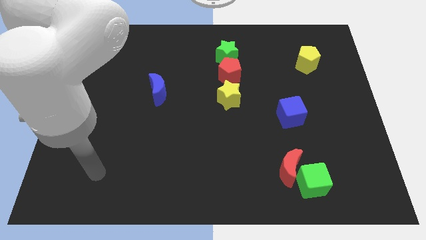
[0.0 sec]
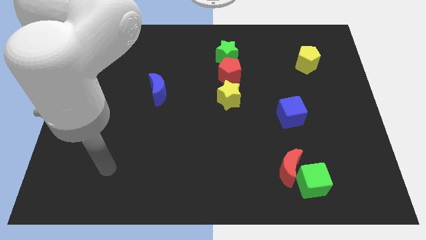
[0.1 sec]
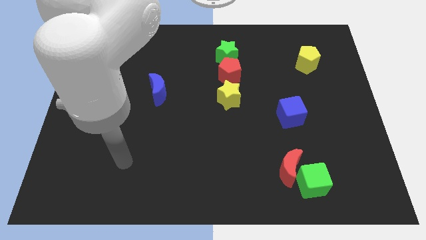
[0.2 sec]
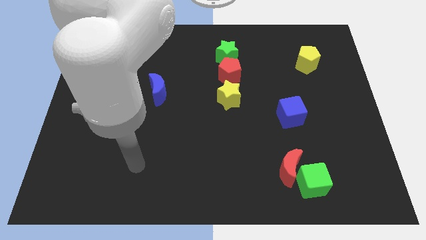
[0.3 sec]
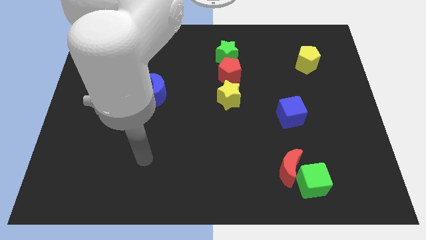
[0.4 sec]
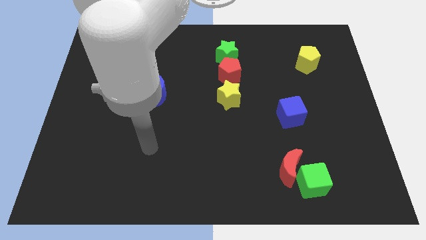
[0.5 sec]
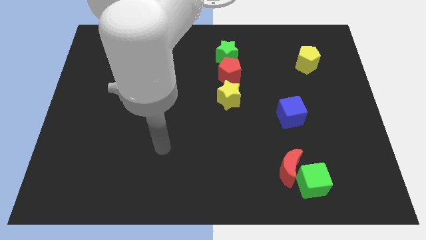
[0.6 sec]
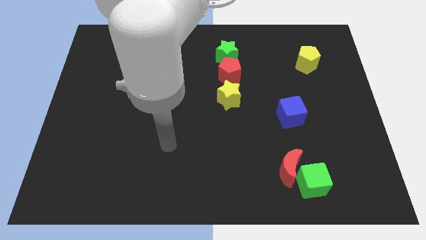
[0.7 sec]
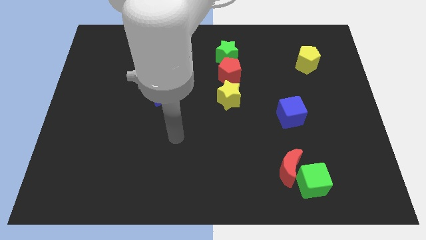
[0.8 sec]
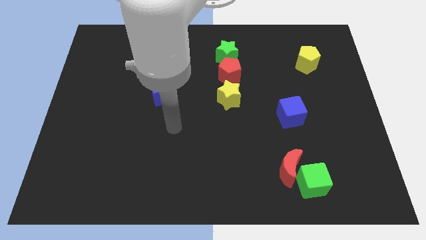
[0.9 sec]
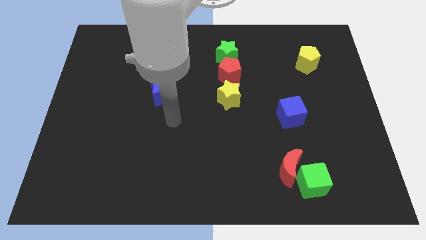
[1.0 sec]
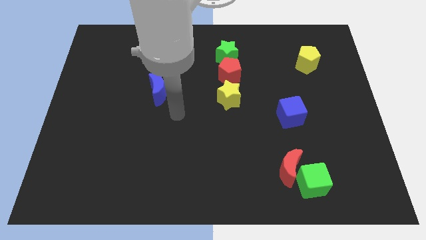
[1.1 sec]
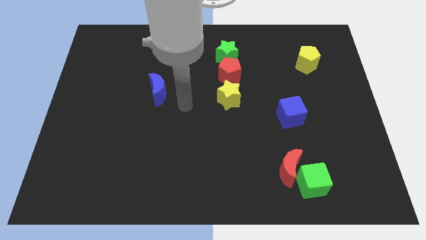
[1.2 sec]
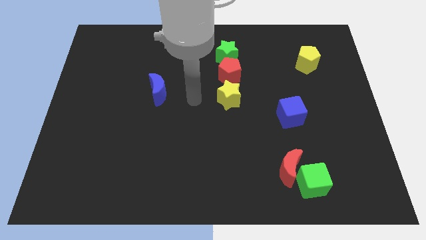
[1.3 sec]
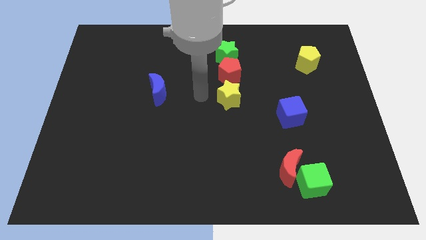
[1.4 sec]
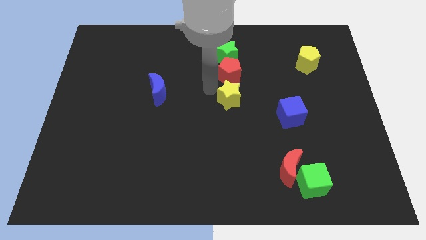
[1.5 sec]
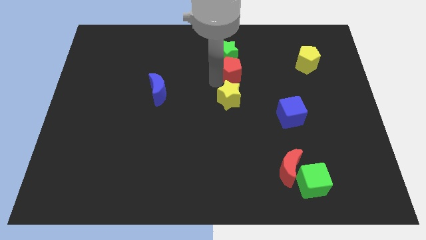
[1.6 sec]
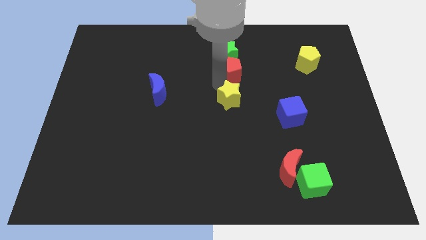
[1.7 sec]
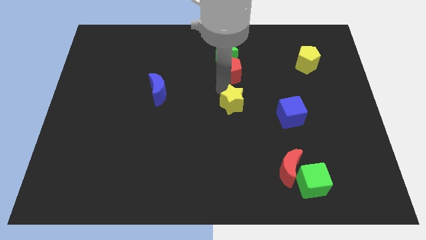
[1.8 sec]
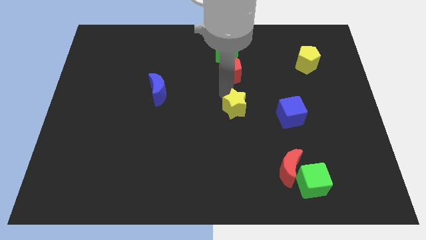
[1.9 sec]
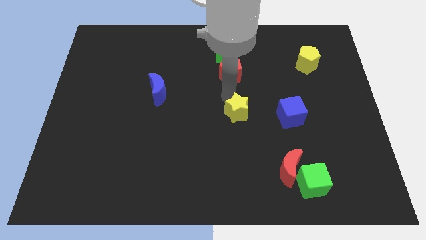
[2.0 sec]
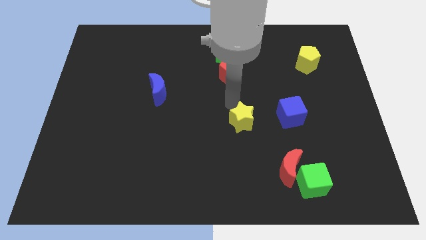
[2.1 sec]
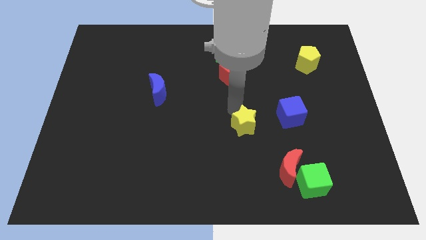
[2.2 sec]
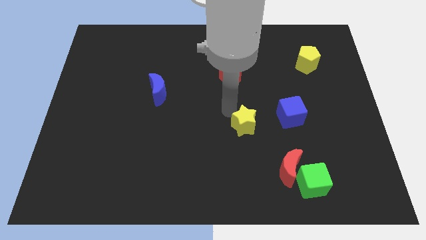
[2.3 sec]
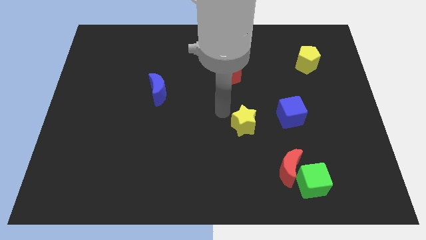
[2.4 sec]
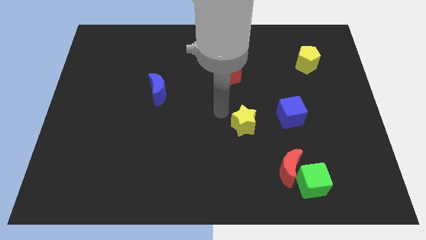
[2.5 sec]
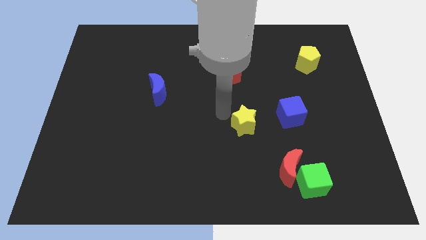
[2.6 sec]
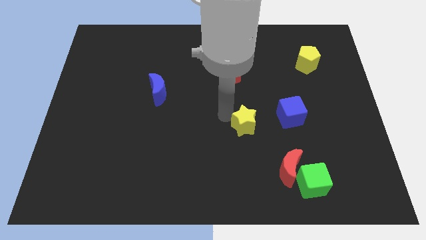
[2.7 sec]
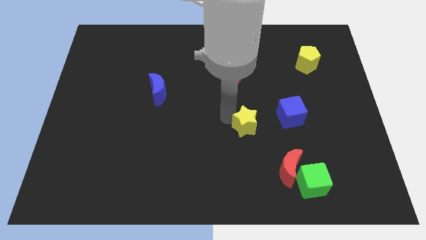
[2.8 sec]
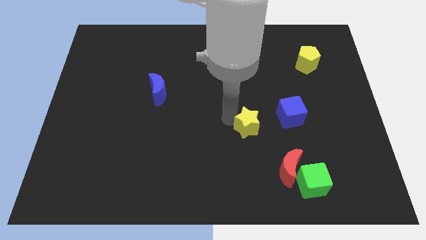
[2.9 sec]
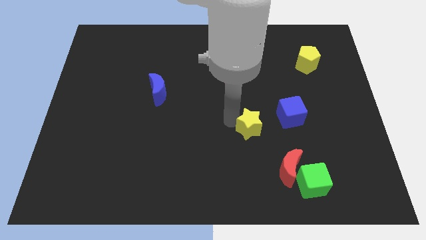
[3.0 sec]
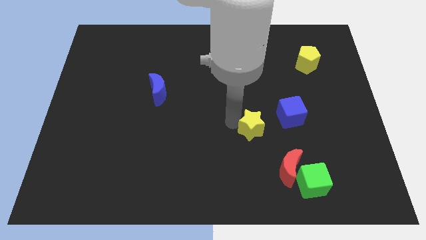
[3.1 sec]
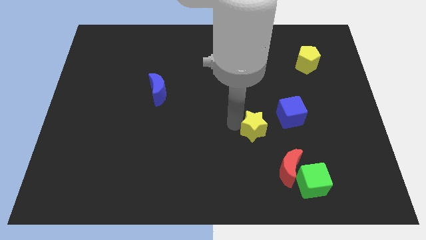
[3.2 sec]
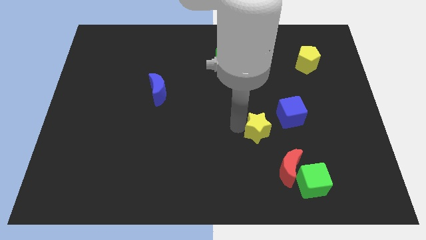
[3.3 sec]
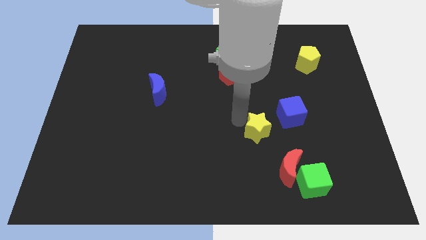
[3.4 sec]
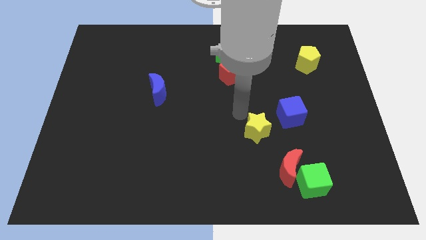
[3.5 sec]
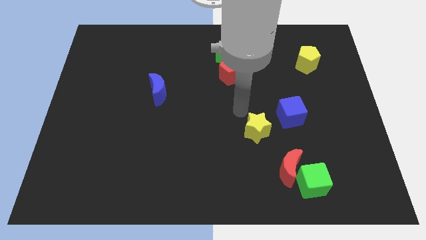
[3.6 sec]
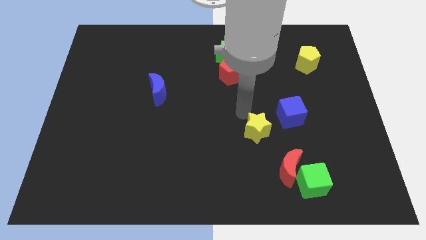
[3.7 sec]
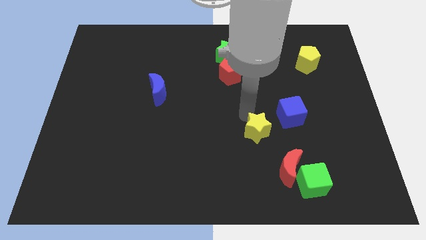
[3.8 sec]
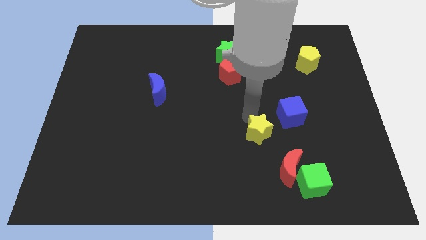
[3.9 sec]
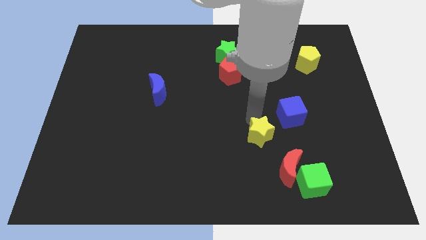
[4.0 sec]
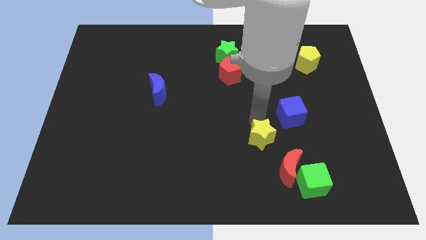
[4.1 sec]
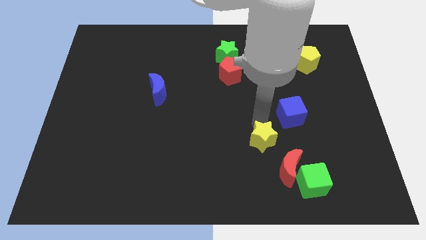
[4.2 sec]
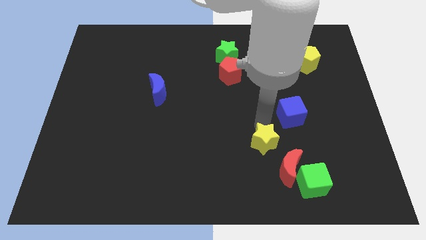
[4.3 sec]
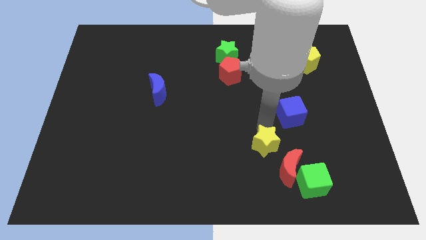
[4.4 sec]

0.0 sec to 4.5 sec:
put the yellow star diagonally up and to the left of the green cube

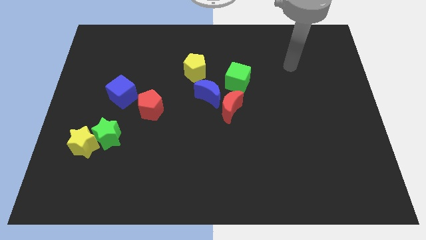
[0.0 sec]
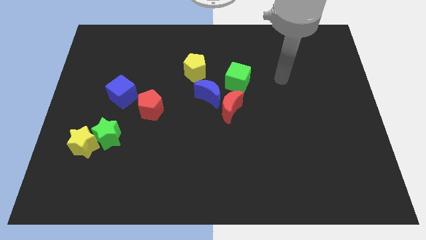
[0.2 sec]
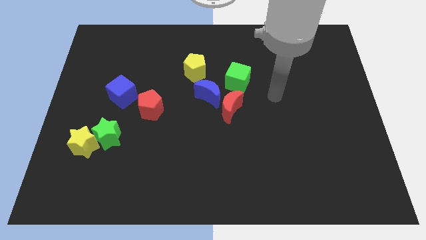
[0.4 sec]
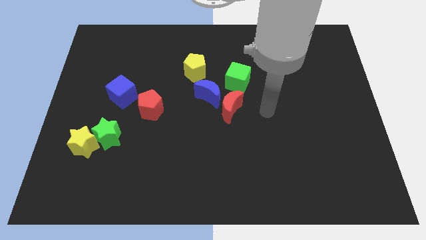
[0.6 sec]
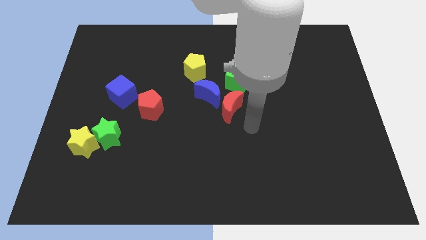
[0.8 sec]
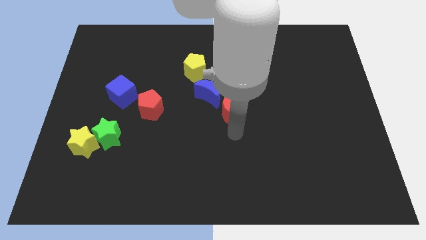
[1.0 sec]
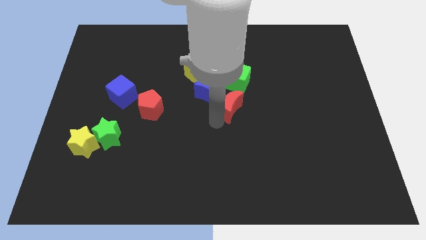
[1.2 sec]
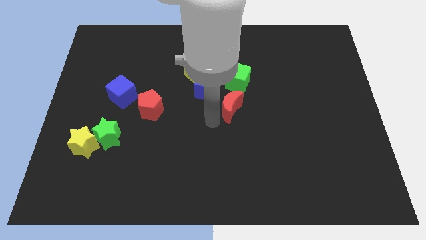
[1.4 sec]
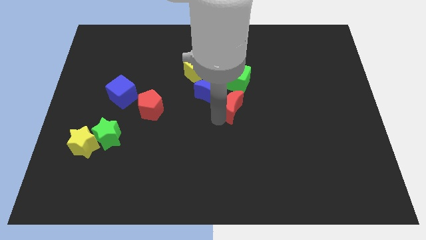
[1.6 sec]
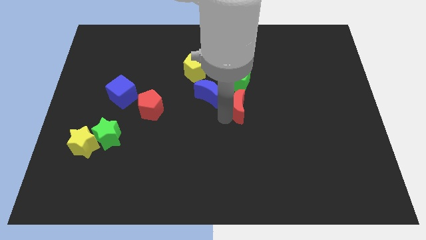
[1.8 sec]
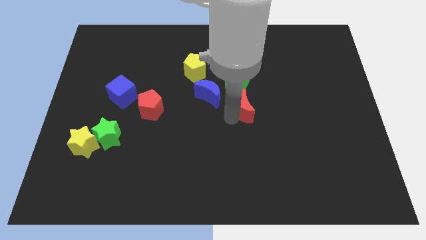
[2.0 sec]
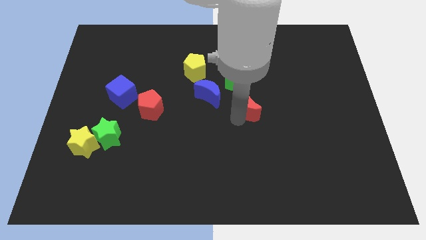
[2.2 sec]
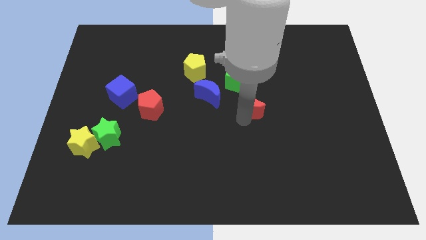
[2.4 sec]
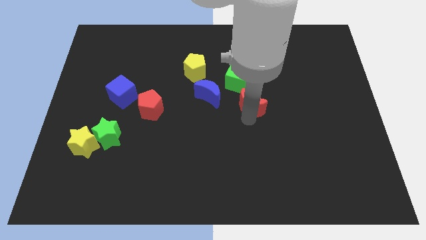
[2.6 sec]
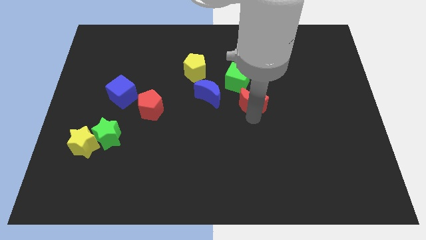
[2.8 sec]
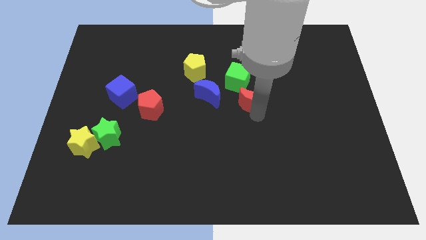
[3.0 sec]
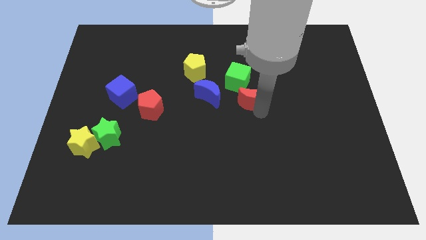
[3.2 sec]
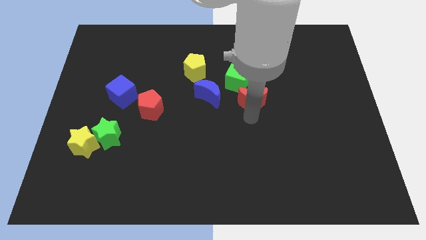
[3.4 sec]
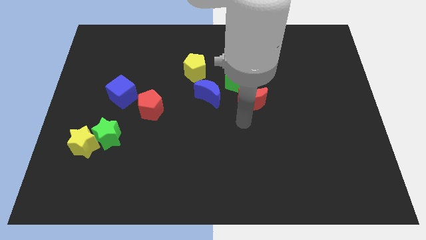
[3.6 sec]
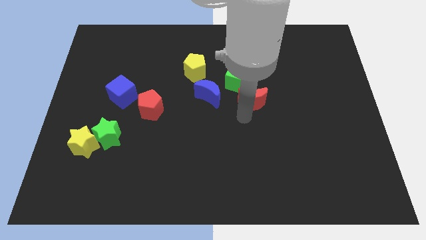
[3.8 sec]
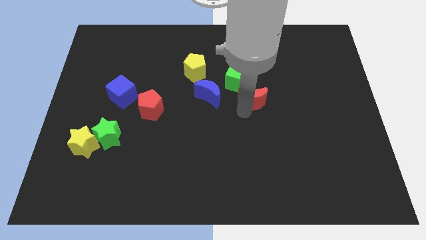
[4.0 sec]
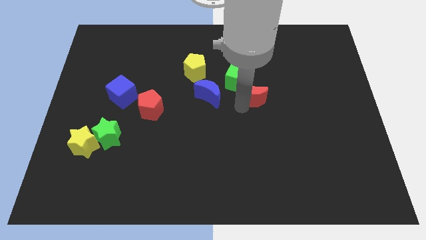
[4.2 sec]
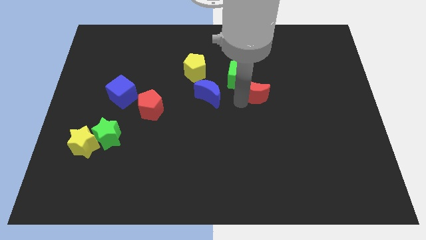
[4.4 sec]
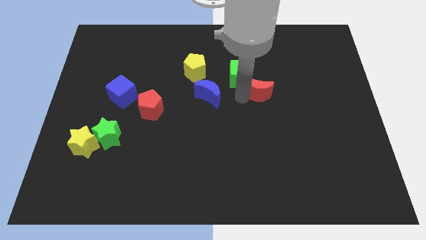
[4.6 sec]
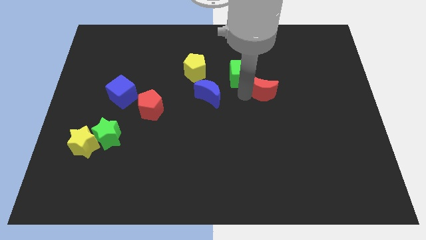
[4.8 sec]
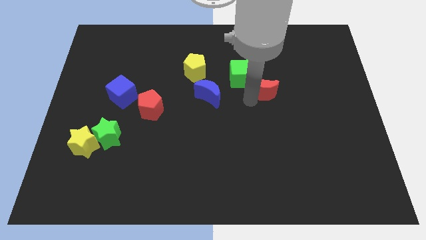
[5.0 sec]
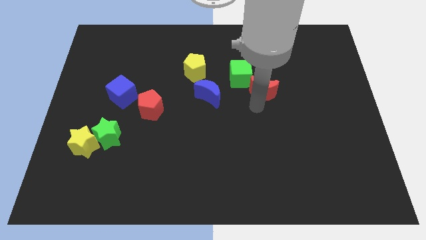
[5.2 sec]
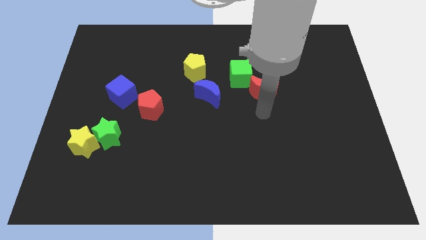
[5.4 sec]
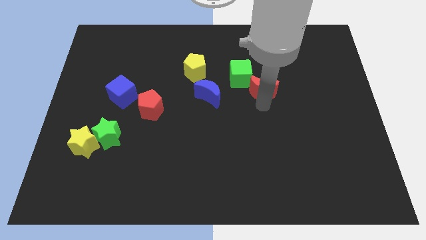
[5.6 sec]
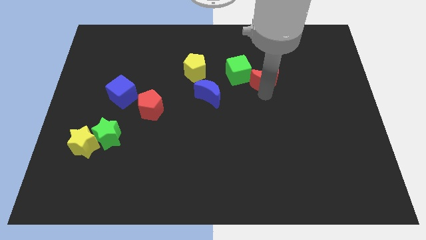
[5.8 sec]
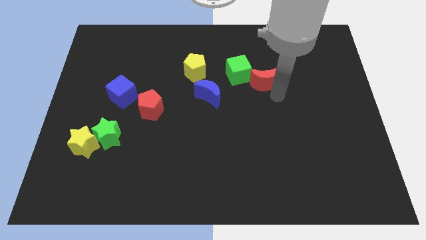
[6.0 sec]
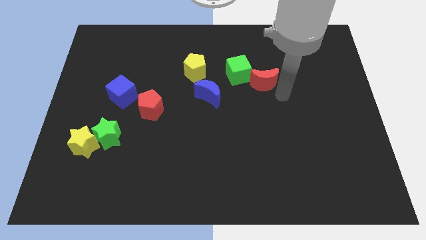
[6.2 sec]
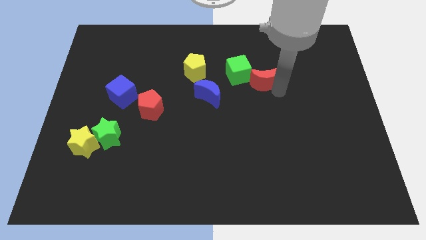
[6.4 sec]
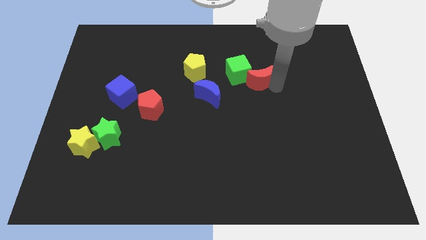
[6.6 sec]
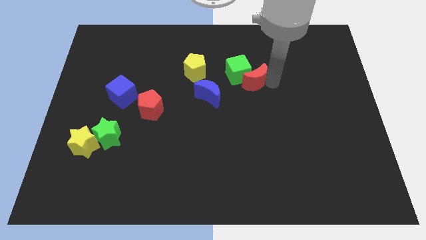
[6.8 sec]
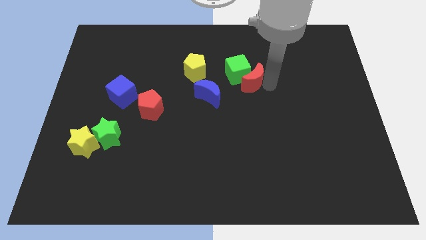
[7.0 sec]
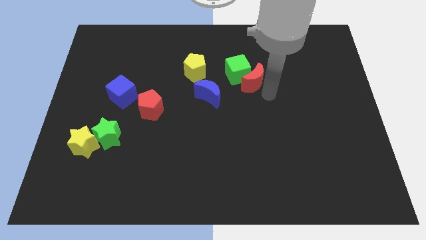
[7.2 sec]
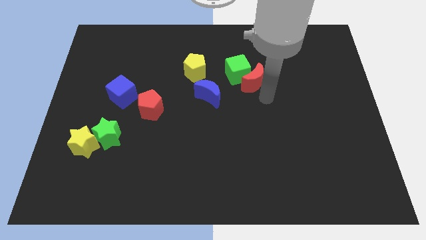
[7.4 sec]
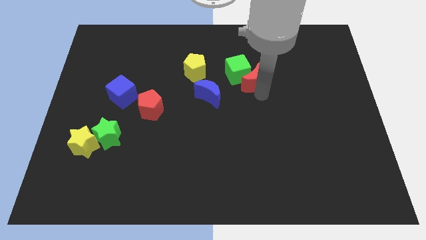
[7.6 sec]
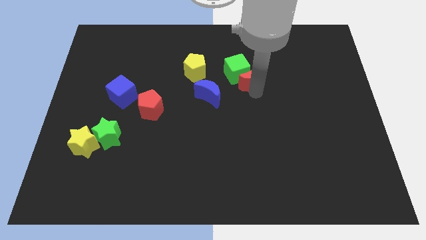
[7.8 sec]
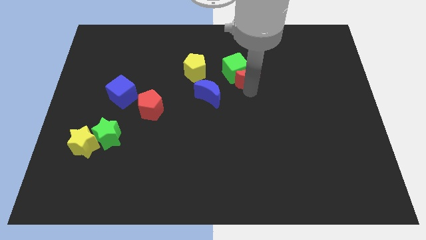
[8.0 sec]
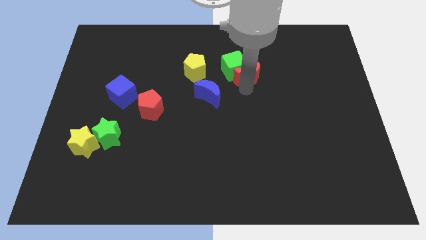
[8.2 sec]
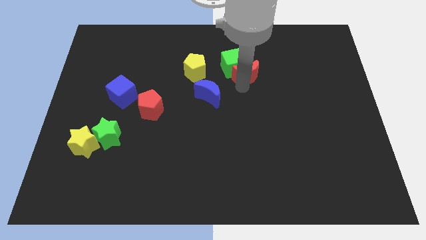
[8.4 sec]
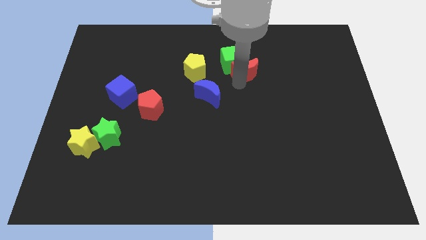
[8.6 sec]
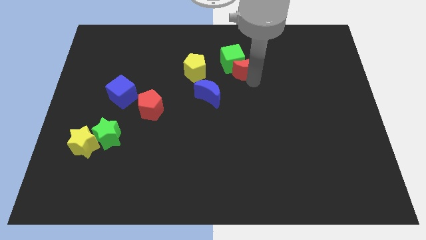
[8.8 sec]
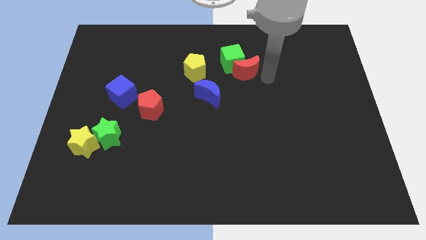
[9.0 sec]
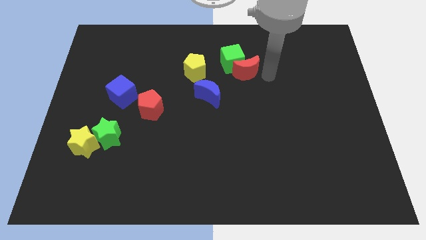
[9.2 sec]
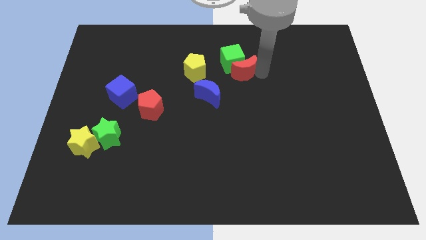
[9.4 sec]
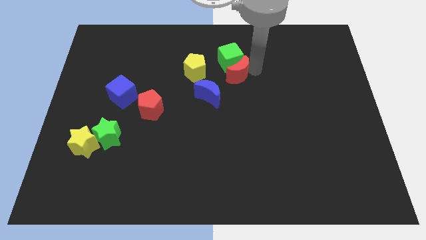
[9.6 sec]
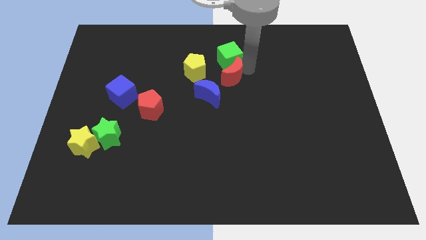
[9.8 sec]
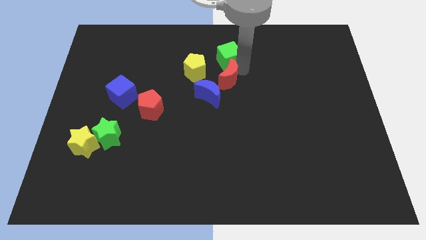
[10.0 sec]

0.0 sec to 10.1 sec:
move the red moon to the top of the blue moon
